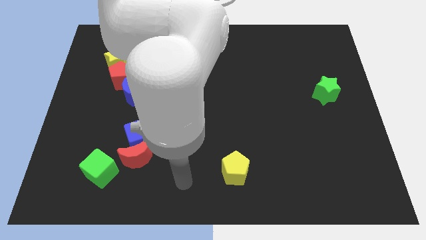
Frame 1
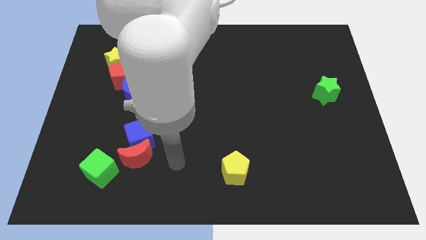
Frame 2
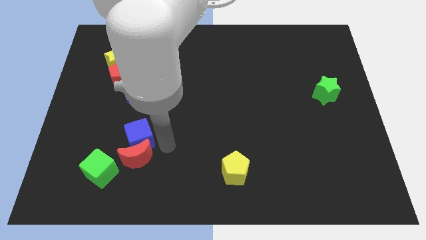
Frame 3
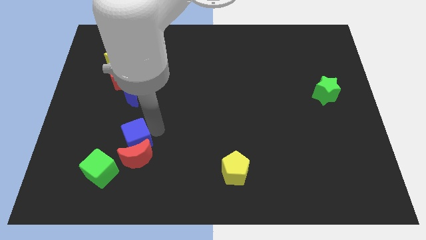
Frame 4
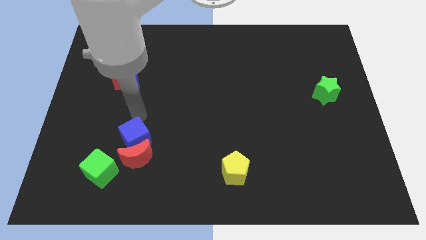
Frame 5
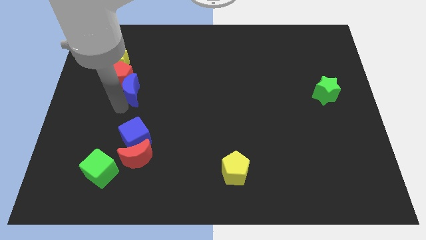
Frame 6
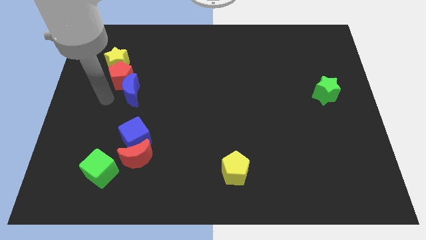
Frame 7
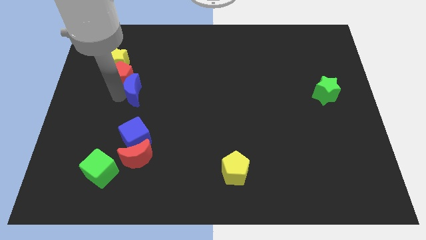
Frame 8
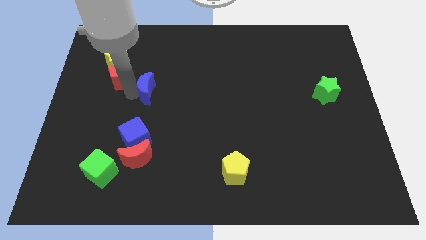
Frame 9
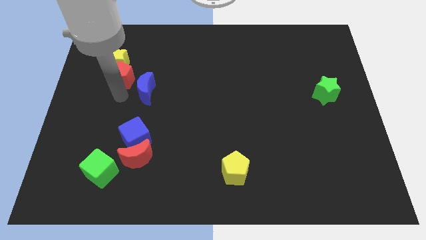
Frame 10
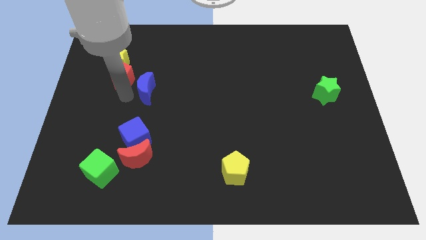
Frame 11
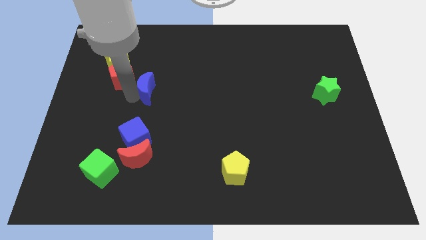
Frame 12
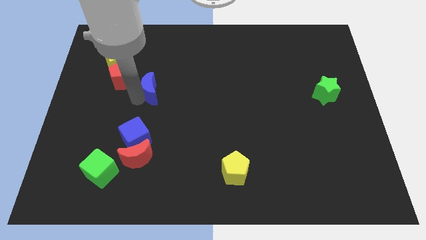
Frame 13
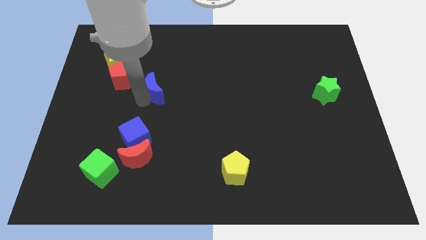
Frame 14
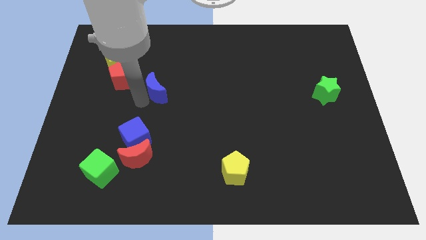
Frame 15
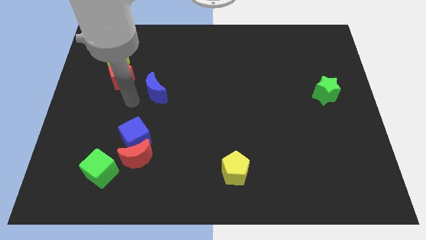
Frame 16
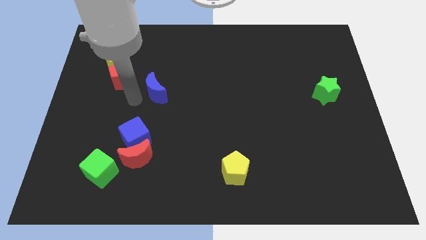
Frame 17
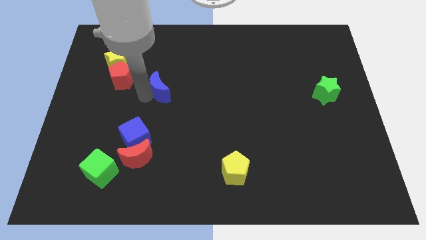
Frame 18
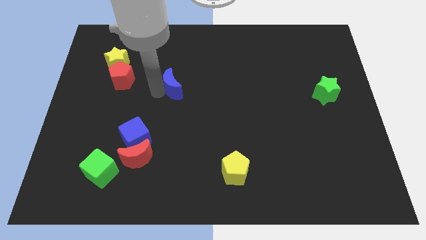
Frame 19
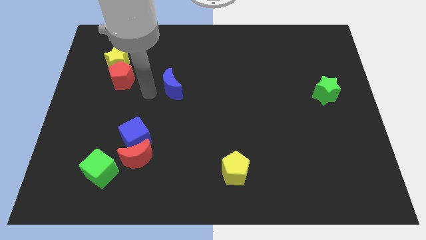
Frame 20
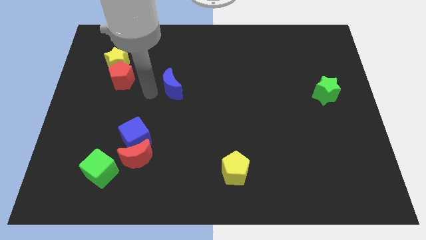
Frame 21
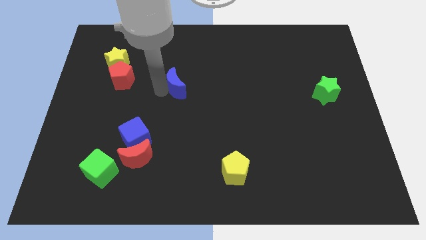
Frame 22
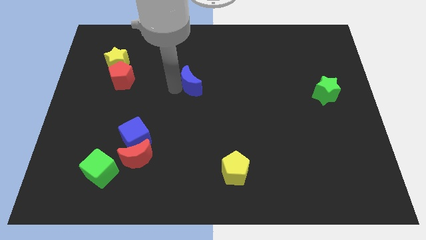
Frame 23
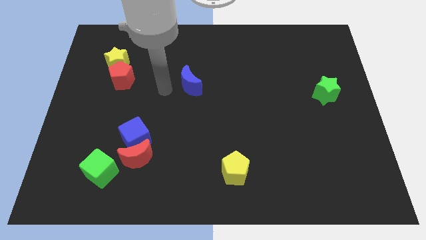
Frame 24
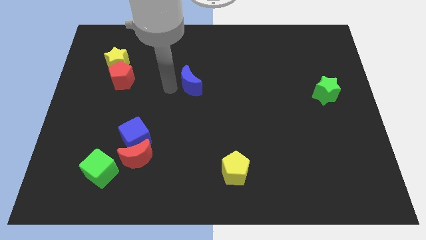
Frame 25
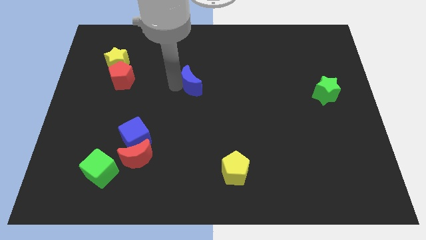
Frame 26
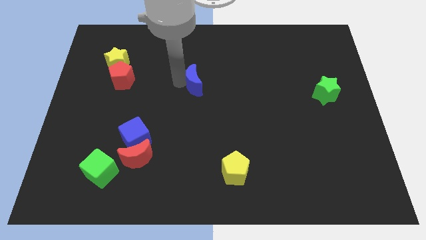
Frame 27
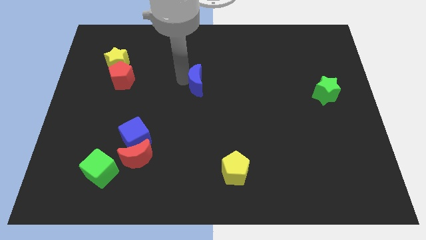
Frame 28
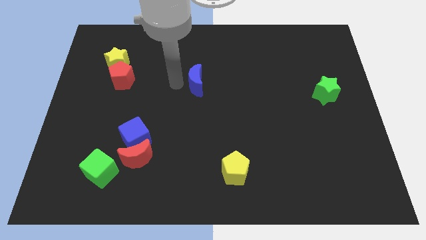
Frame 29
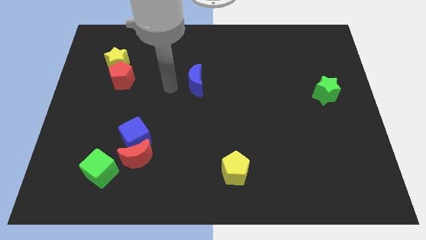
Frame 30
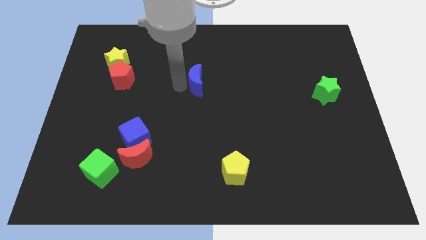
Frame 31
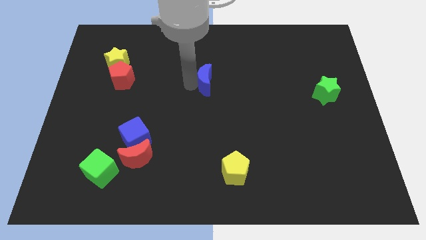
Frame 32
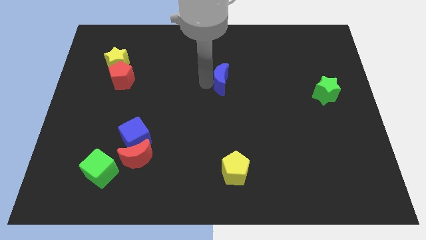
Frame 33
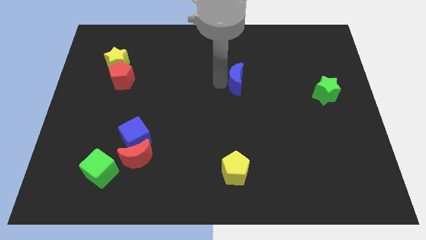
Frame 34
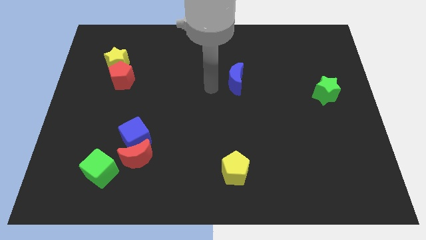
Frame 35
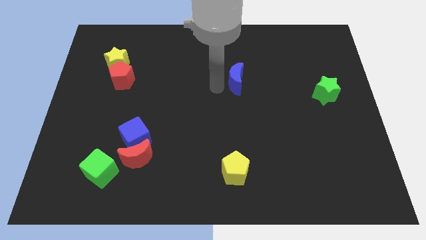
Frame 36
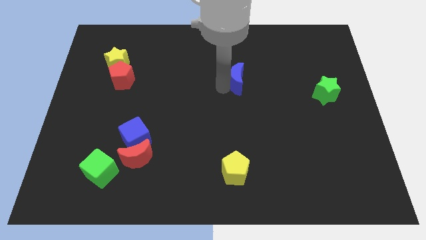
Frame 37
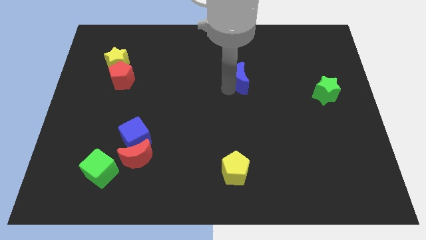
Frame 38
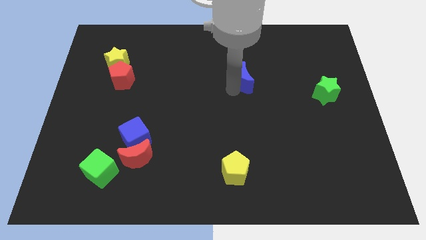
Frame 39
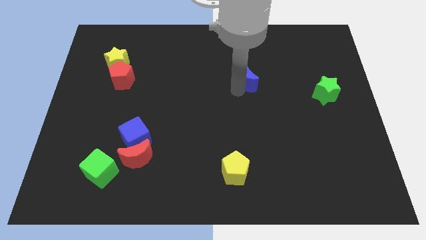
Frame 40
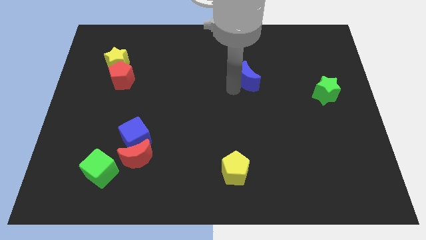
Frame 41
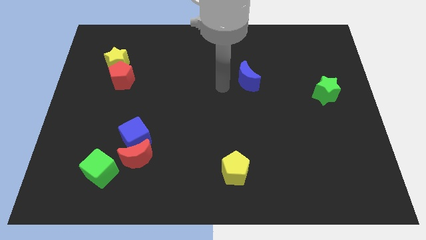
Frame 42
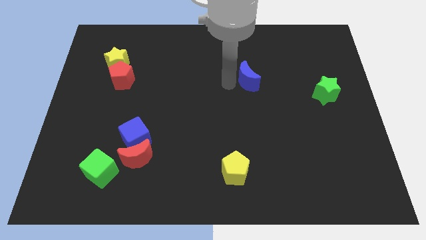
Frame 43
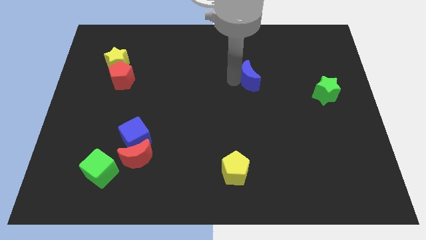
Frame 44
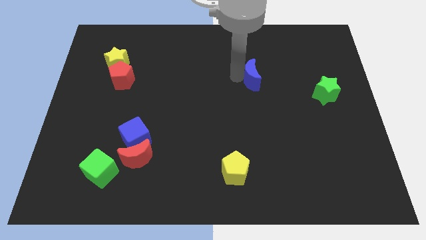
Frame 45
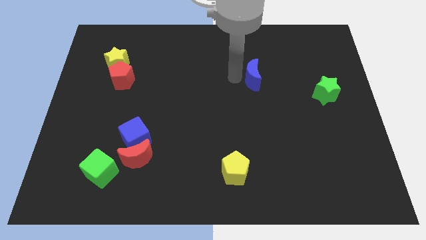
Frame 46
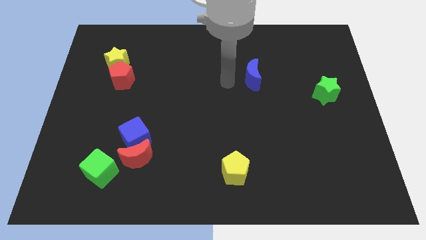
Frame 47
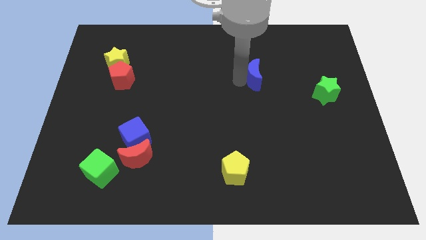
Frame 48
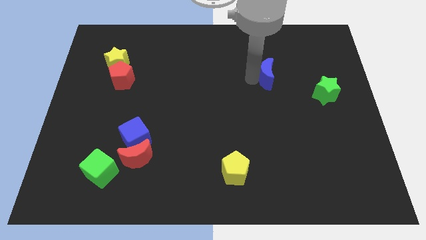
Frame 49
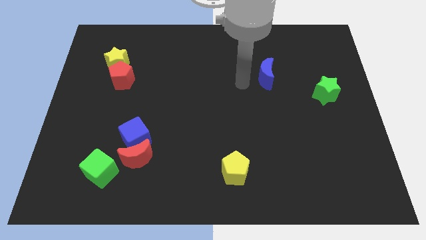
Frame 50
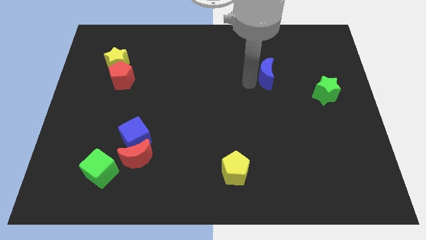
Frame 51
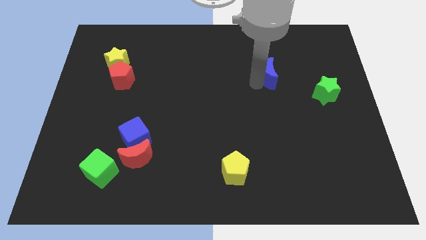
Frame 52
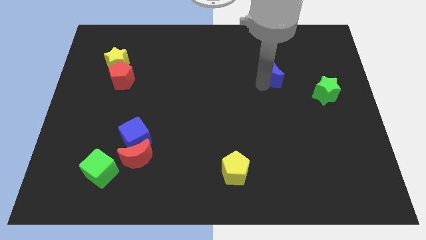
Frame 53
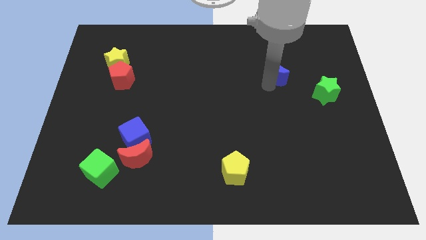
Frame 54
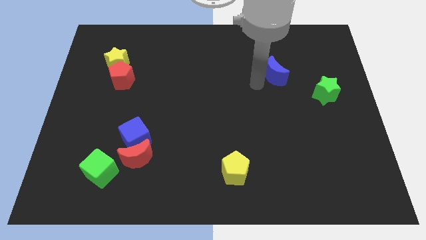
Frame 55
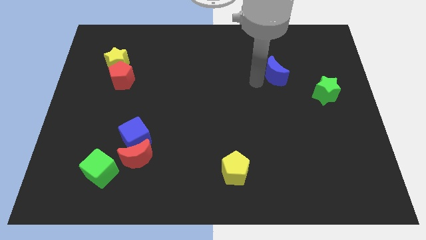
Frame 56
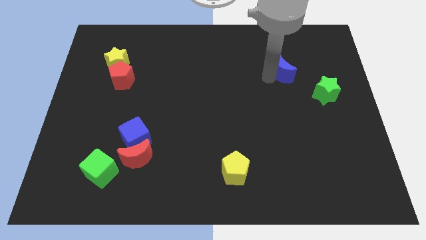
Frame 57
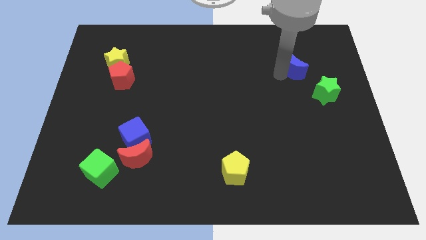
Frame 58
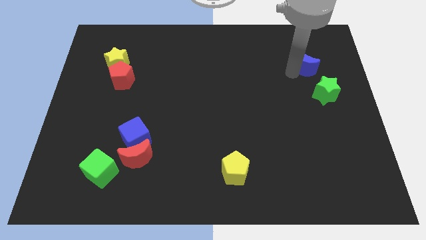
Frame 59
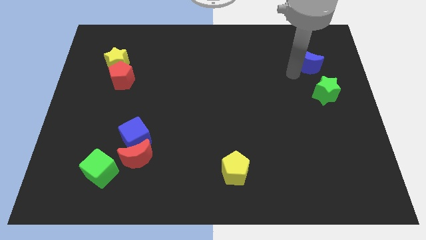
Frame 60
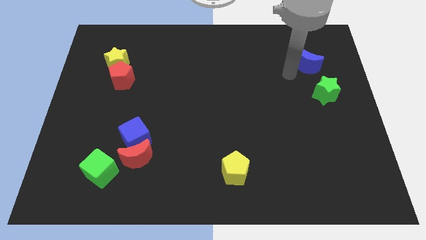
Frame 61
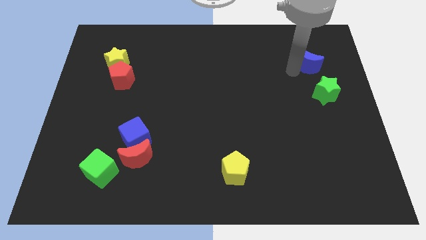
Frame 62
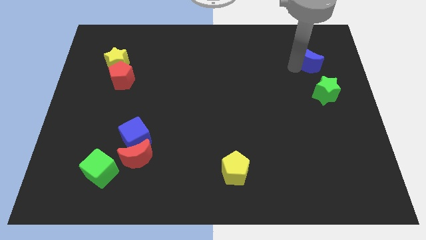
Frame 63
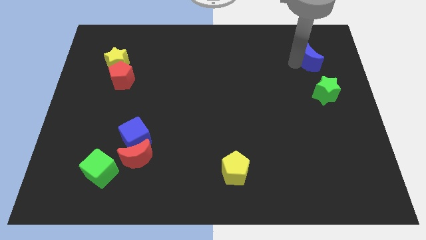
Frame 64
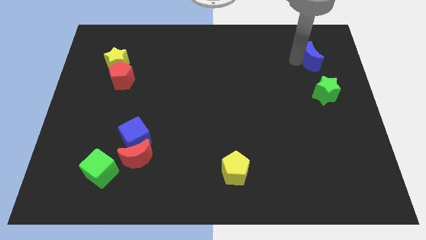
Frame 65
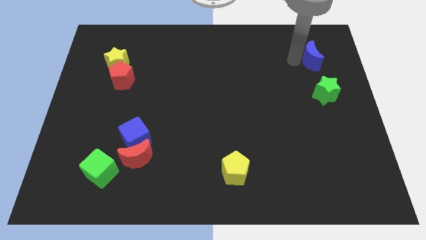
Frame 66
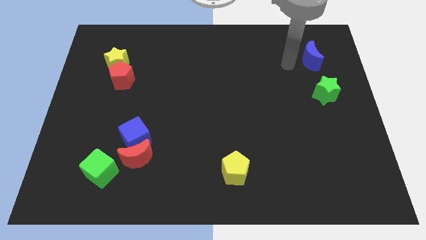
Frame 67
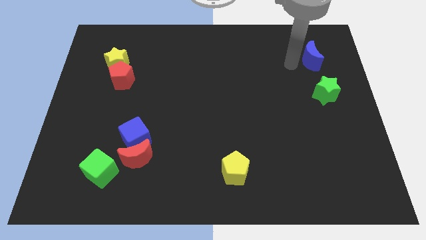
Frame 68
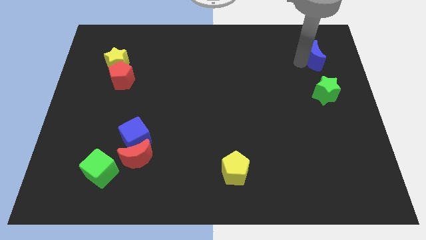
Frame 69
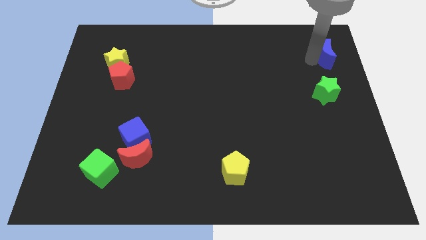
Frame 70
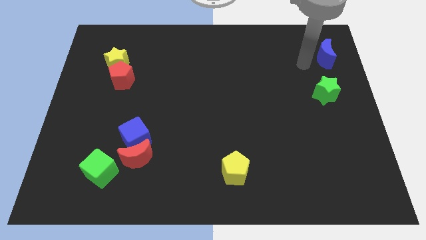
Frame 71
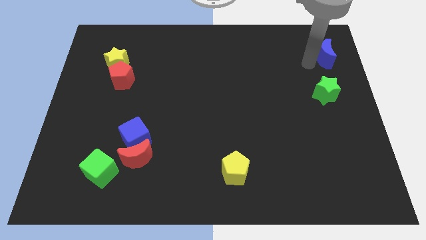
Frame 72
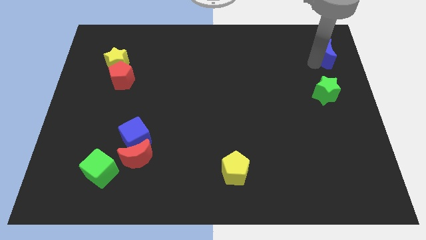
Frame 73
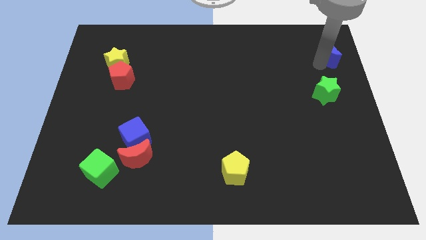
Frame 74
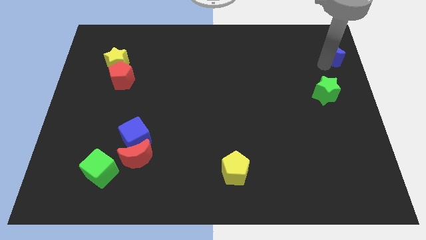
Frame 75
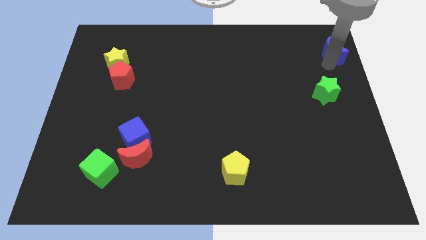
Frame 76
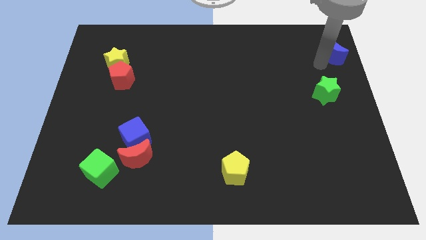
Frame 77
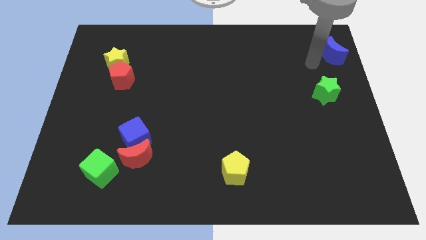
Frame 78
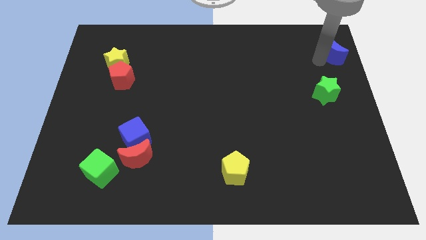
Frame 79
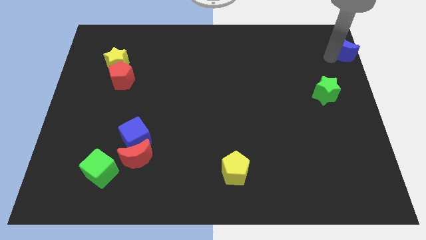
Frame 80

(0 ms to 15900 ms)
move the blue moon to the top right of the board
